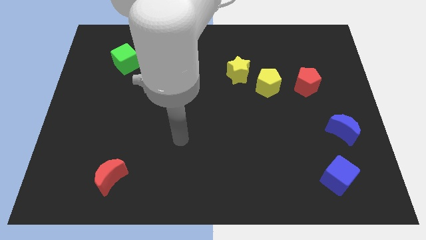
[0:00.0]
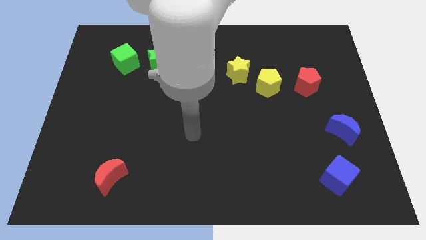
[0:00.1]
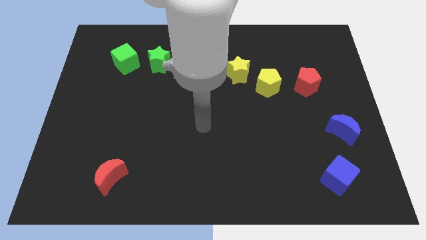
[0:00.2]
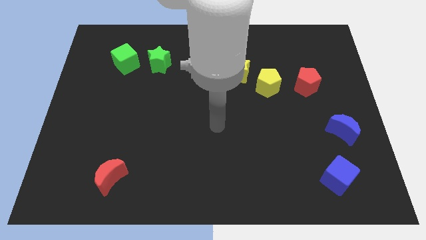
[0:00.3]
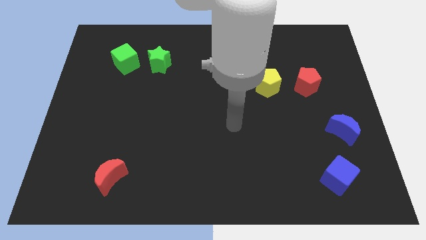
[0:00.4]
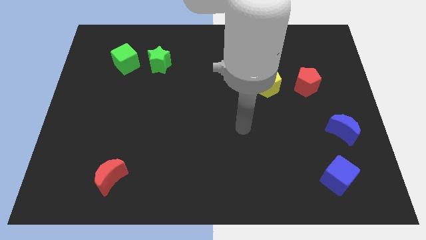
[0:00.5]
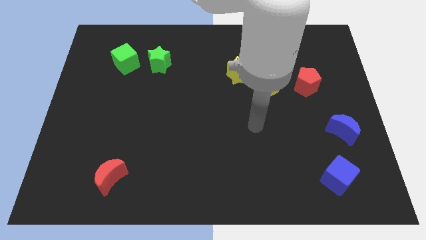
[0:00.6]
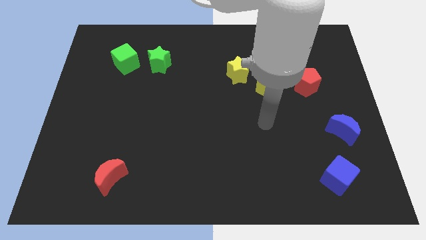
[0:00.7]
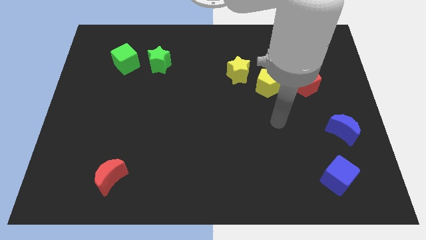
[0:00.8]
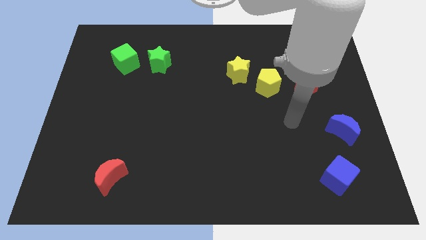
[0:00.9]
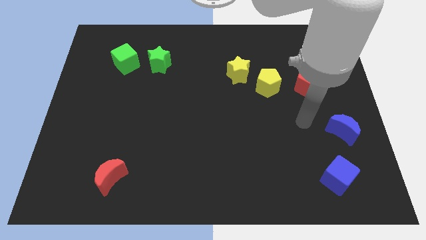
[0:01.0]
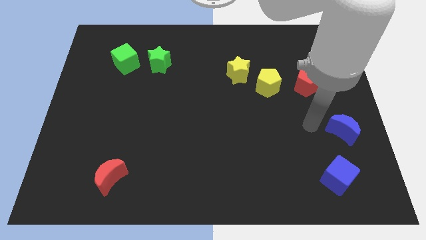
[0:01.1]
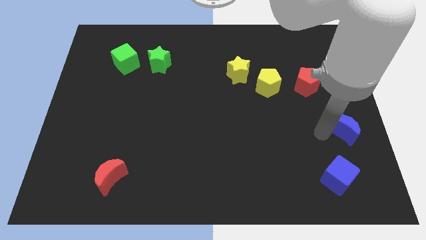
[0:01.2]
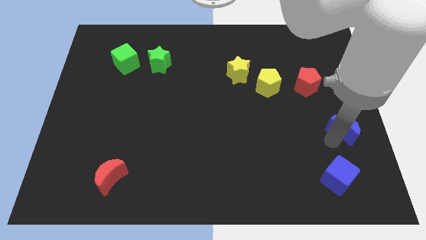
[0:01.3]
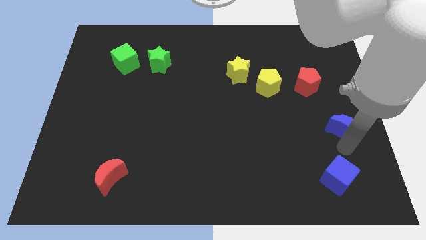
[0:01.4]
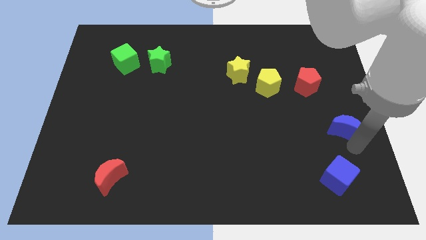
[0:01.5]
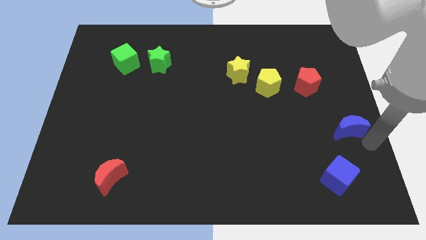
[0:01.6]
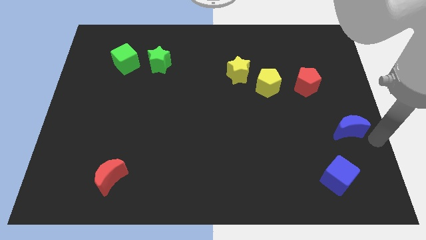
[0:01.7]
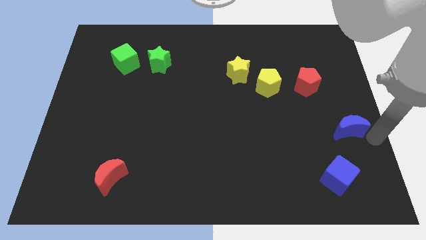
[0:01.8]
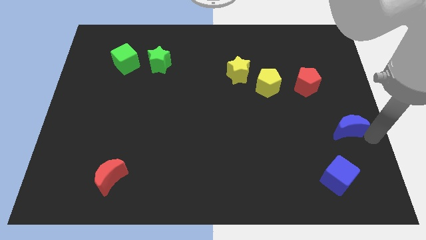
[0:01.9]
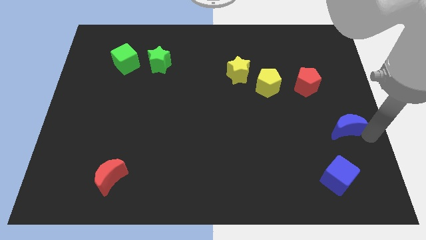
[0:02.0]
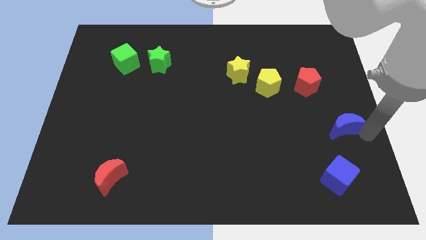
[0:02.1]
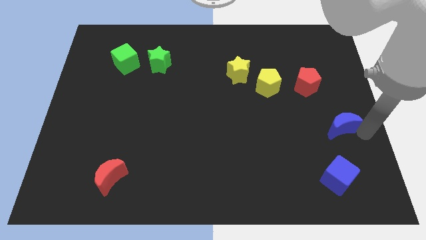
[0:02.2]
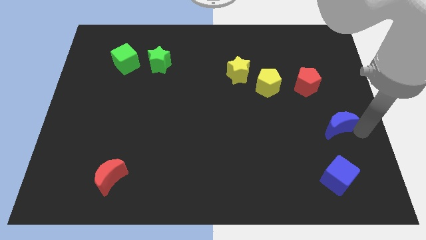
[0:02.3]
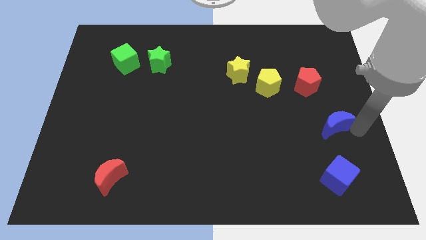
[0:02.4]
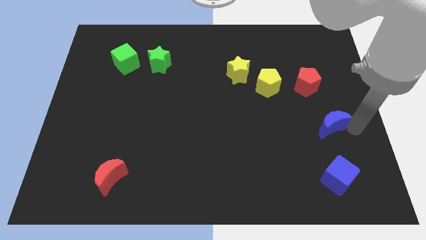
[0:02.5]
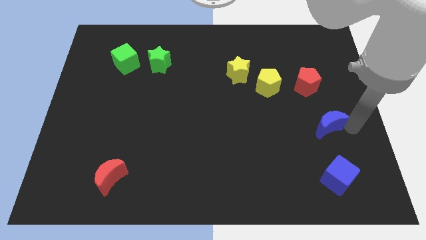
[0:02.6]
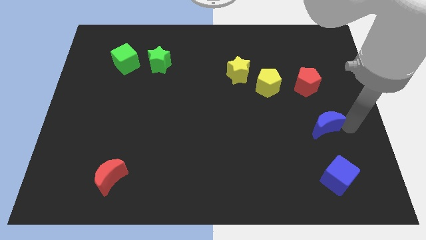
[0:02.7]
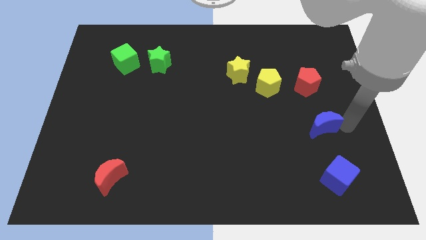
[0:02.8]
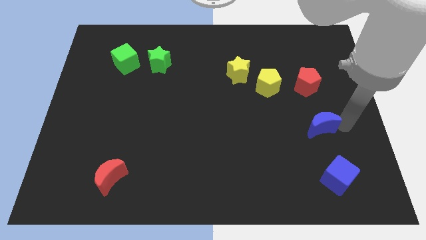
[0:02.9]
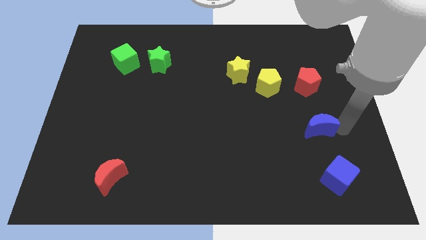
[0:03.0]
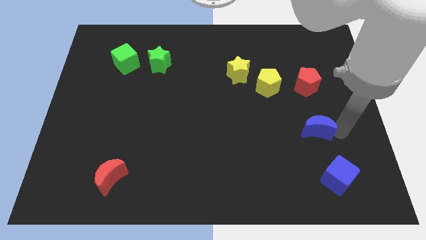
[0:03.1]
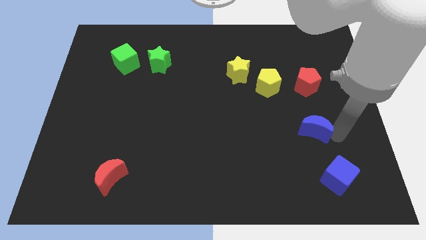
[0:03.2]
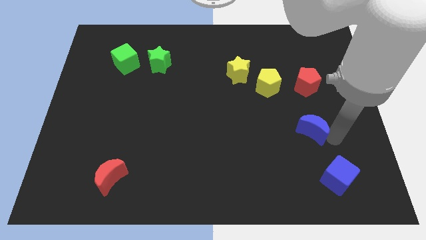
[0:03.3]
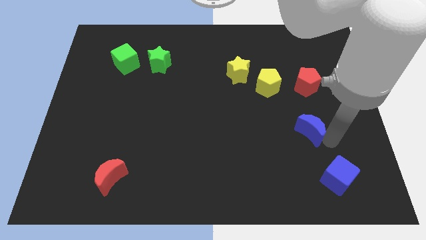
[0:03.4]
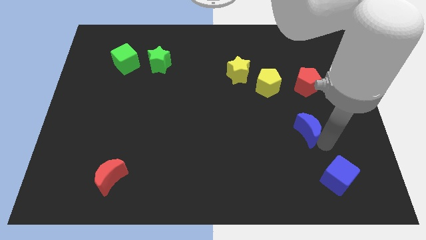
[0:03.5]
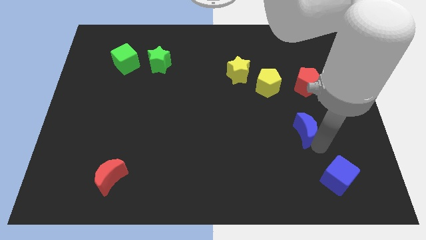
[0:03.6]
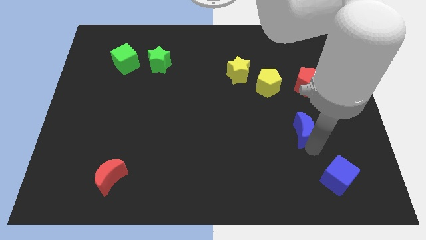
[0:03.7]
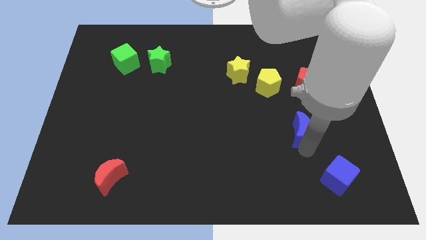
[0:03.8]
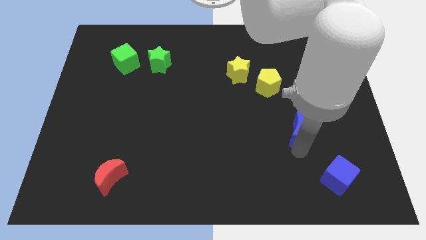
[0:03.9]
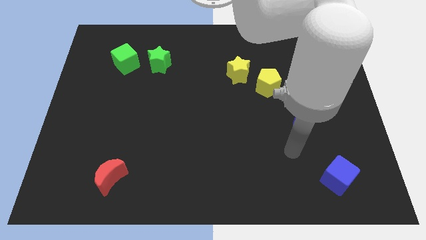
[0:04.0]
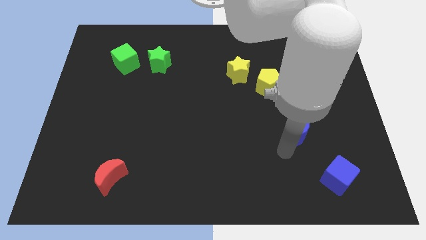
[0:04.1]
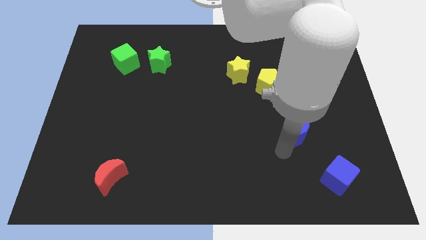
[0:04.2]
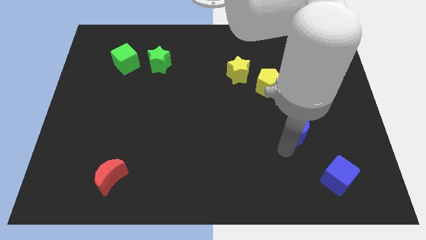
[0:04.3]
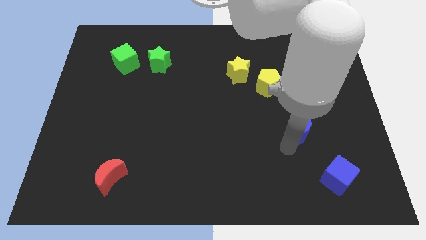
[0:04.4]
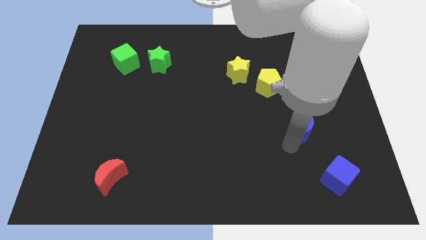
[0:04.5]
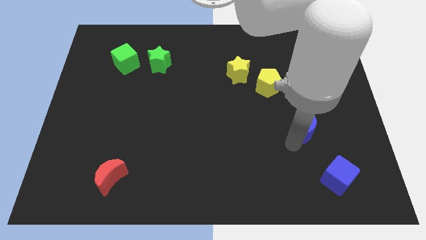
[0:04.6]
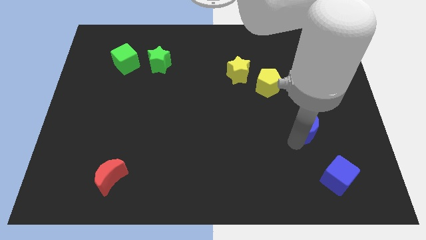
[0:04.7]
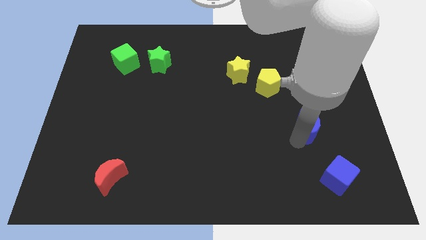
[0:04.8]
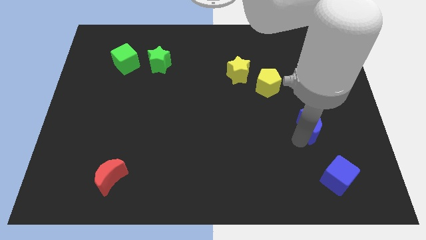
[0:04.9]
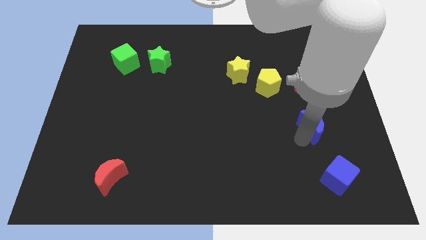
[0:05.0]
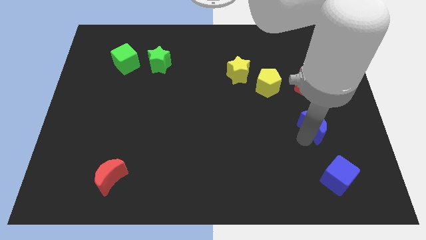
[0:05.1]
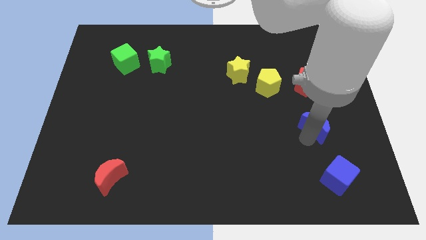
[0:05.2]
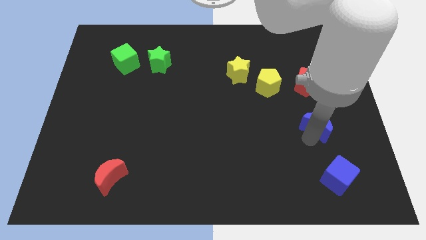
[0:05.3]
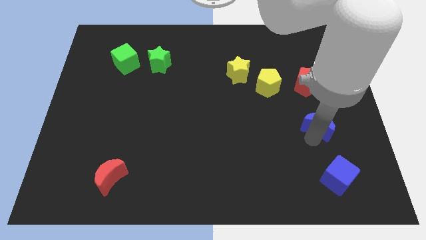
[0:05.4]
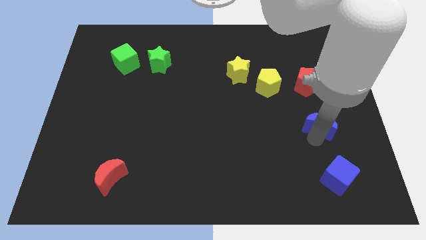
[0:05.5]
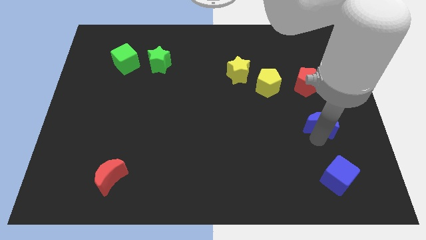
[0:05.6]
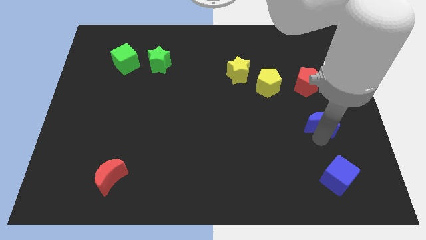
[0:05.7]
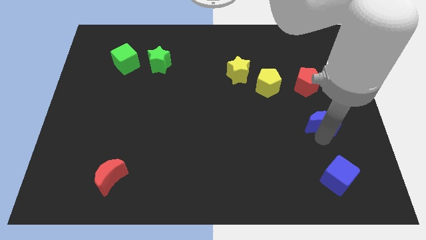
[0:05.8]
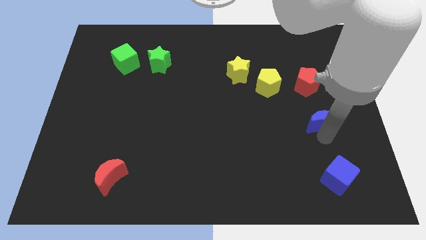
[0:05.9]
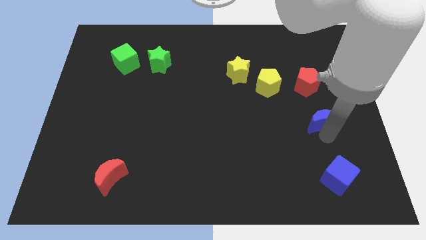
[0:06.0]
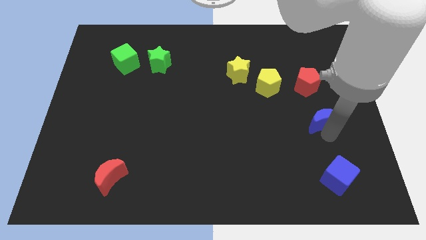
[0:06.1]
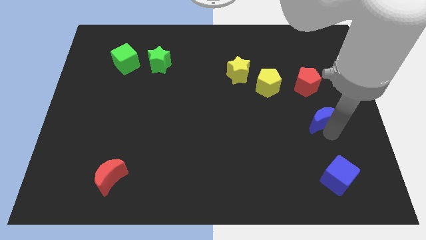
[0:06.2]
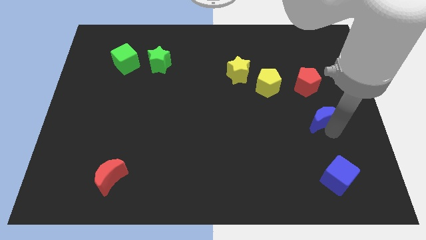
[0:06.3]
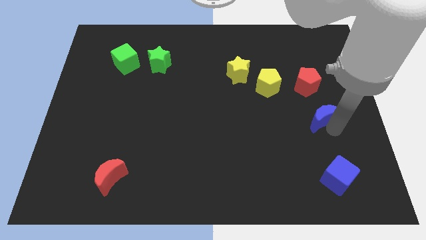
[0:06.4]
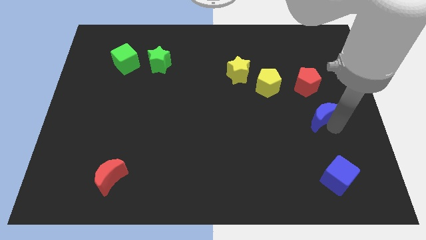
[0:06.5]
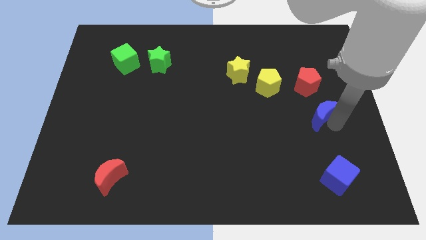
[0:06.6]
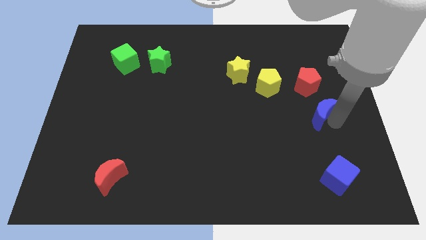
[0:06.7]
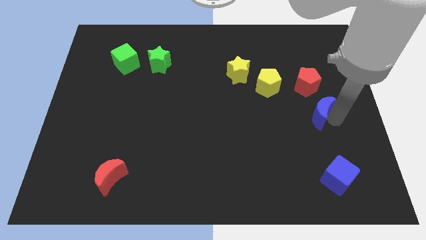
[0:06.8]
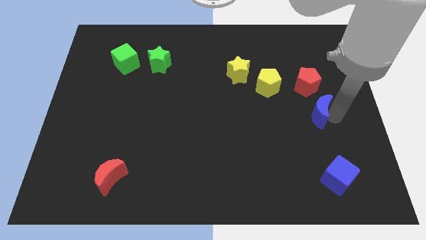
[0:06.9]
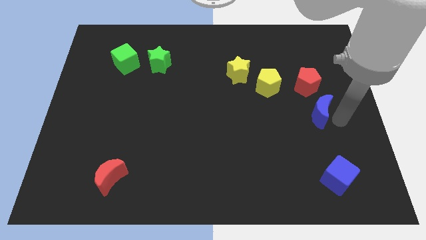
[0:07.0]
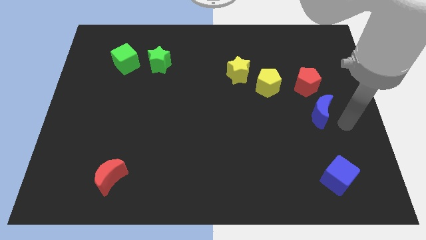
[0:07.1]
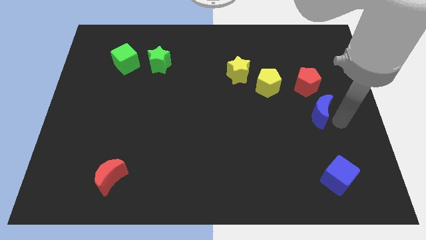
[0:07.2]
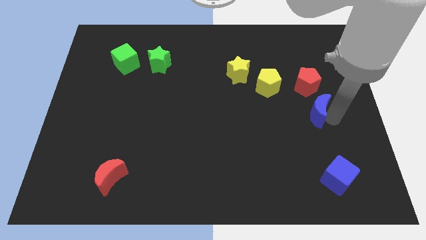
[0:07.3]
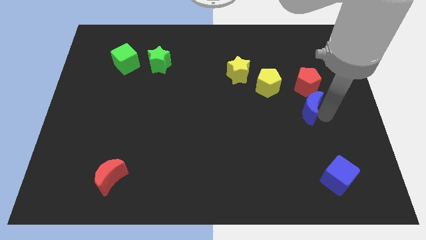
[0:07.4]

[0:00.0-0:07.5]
put the blue moon diagonally down and to the right of the yellow pentagon
